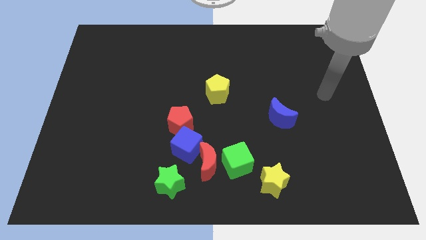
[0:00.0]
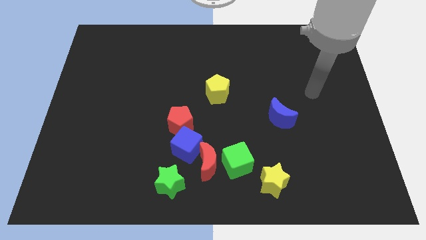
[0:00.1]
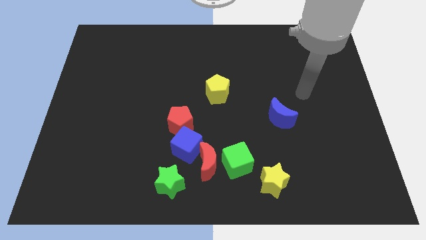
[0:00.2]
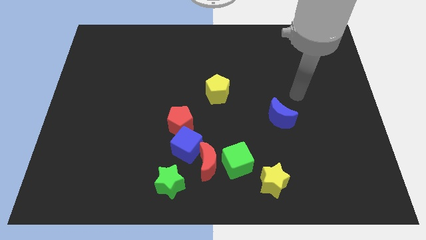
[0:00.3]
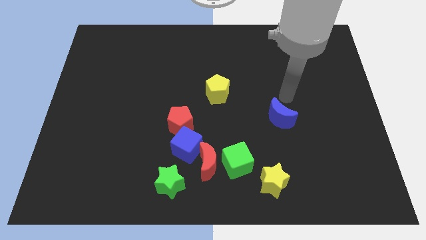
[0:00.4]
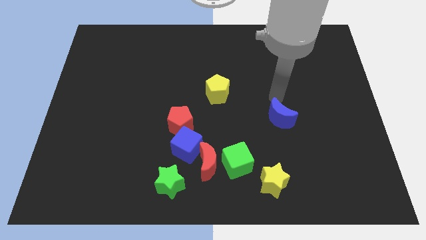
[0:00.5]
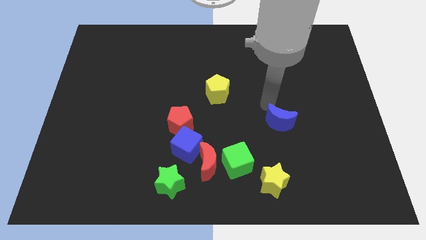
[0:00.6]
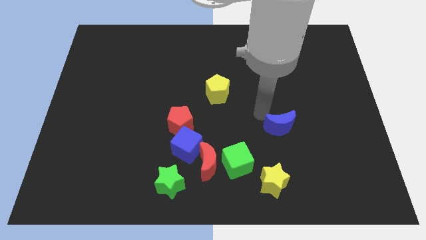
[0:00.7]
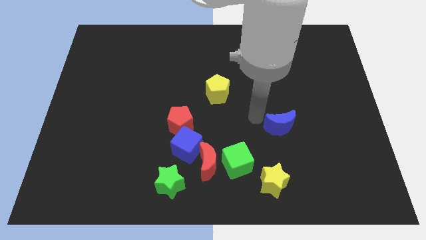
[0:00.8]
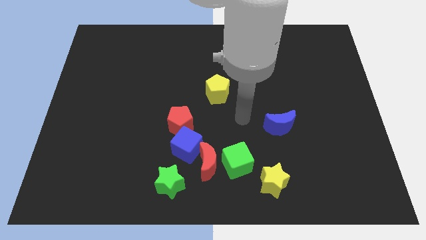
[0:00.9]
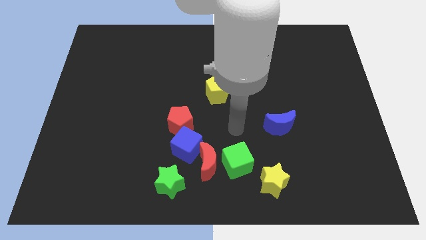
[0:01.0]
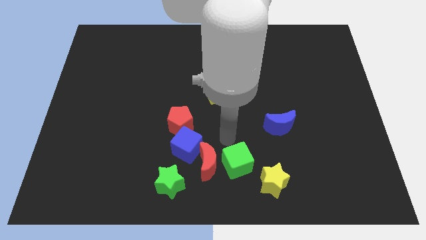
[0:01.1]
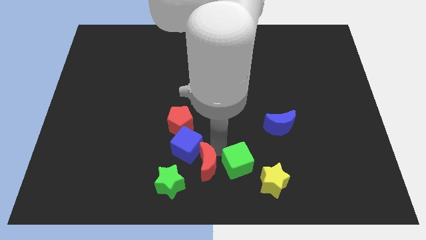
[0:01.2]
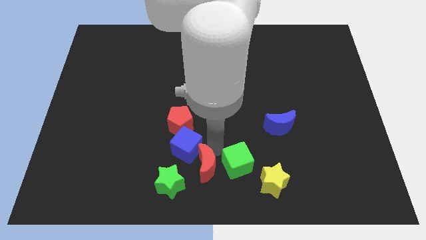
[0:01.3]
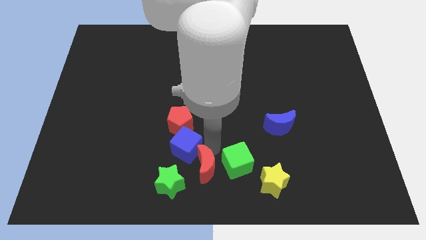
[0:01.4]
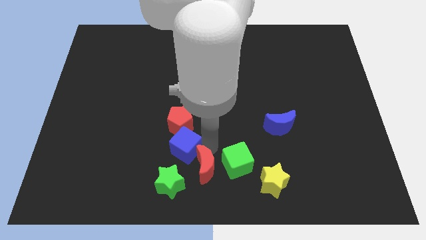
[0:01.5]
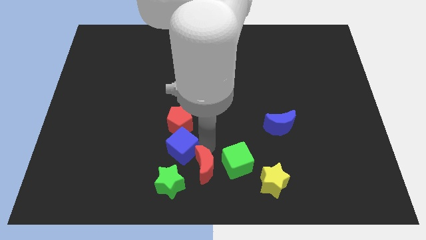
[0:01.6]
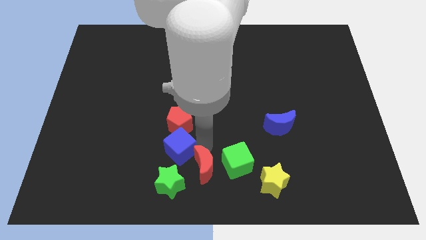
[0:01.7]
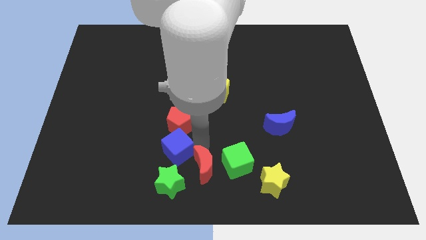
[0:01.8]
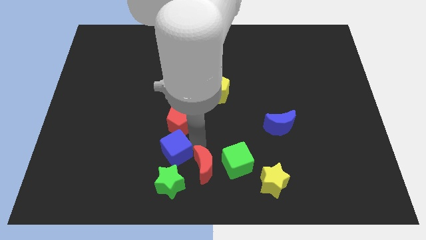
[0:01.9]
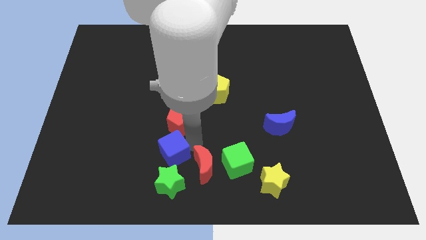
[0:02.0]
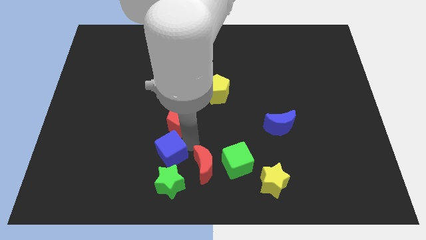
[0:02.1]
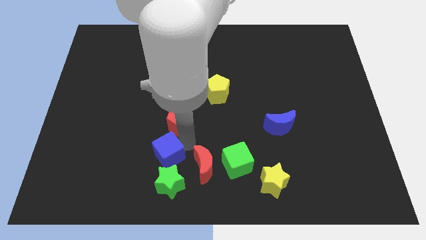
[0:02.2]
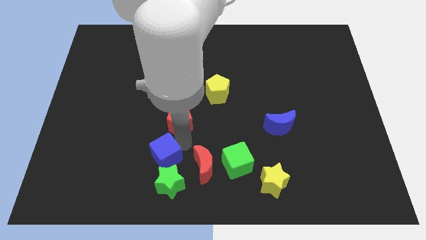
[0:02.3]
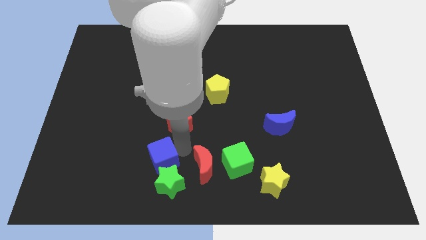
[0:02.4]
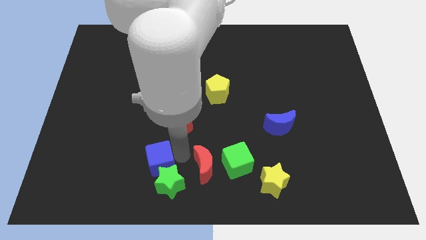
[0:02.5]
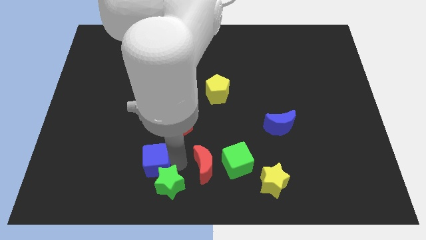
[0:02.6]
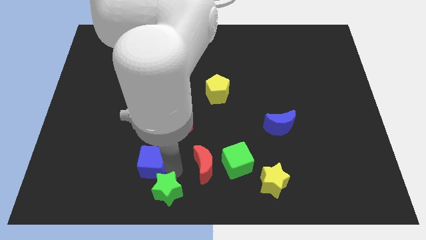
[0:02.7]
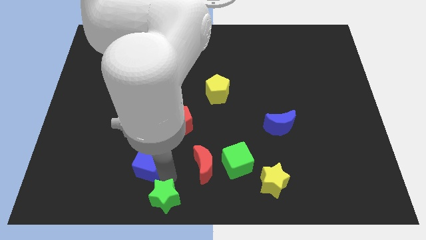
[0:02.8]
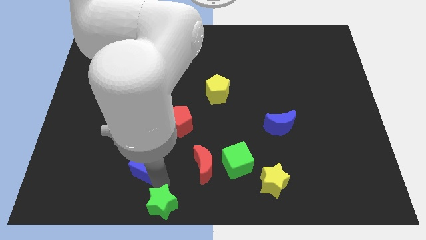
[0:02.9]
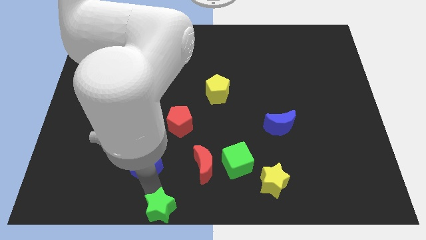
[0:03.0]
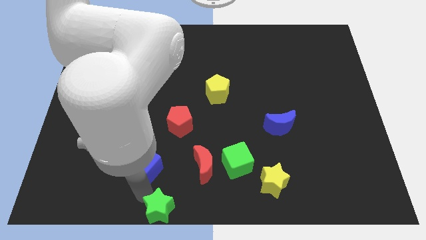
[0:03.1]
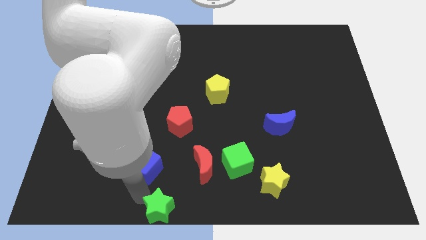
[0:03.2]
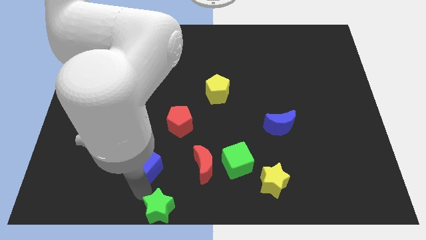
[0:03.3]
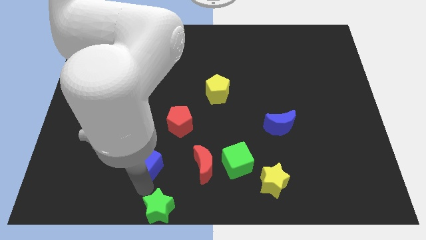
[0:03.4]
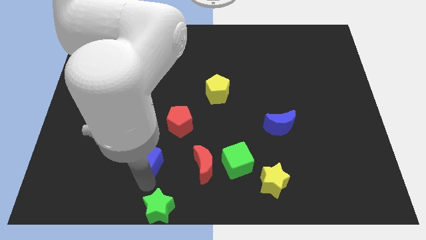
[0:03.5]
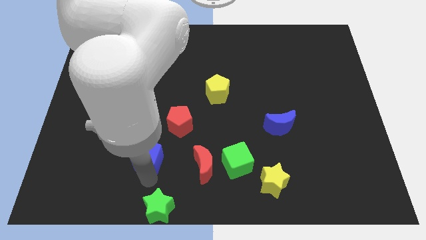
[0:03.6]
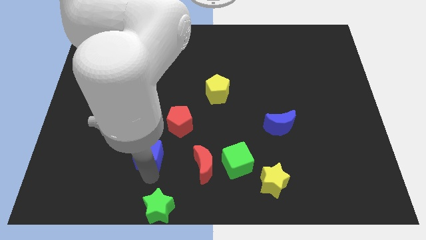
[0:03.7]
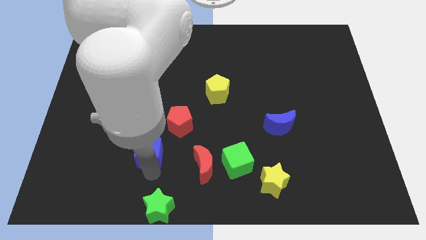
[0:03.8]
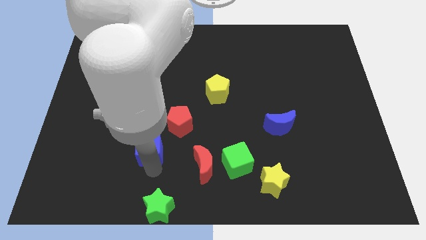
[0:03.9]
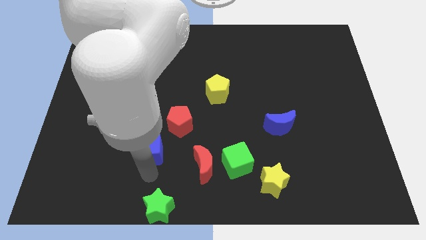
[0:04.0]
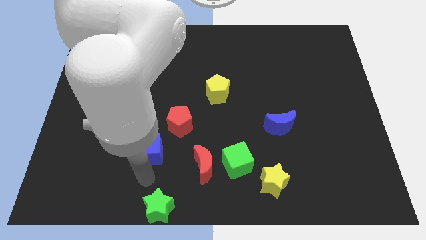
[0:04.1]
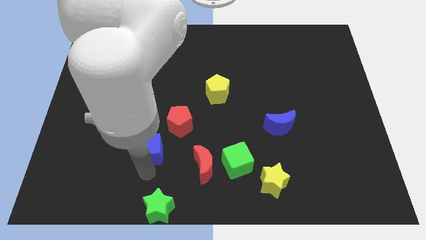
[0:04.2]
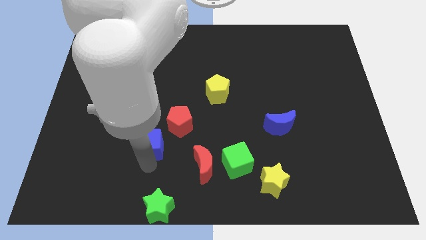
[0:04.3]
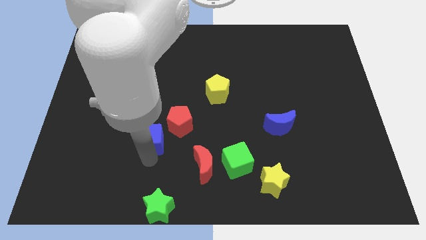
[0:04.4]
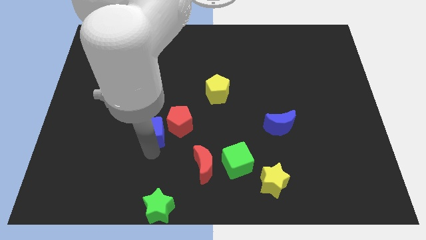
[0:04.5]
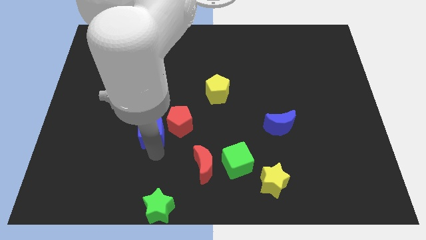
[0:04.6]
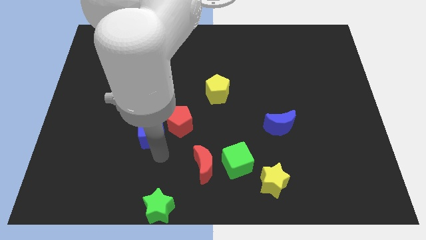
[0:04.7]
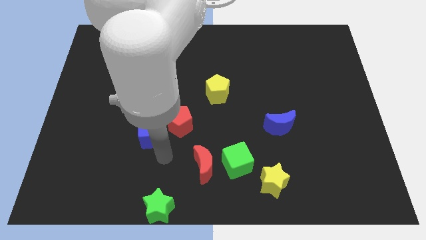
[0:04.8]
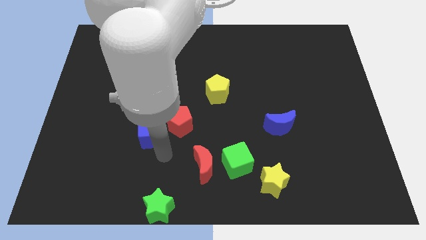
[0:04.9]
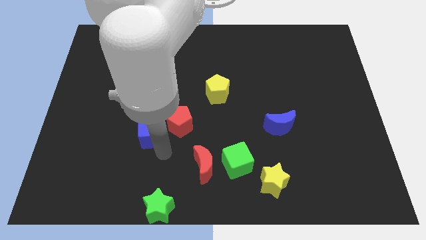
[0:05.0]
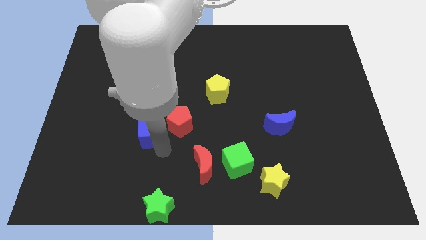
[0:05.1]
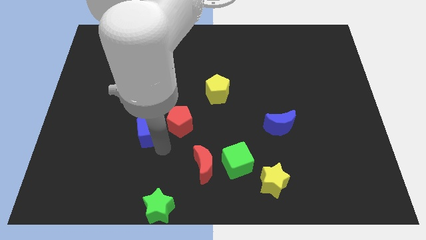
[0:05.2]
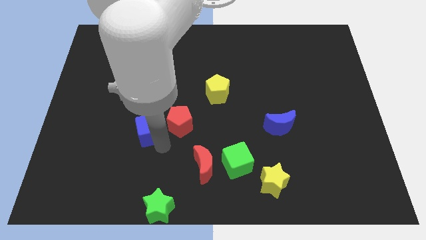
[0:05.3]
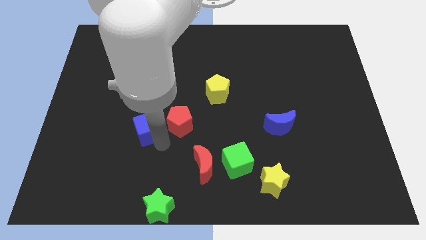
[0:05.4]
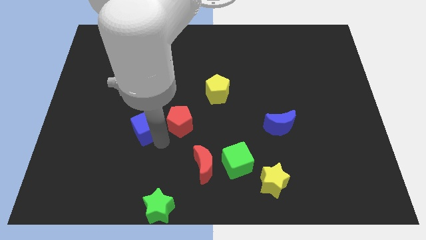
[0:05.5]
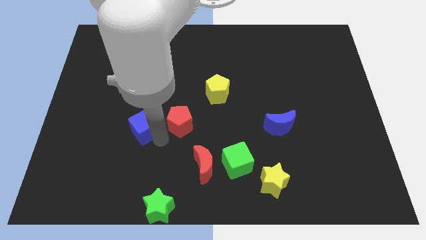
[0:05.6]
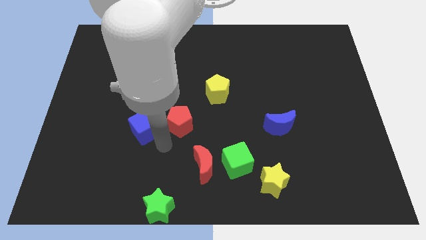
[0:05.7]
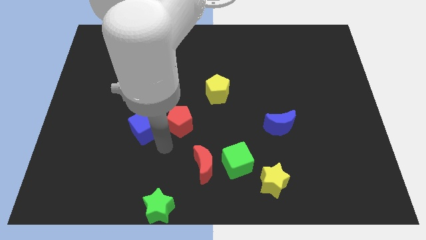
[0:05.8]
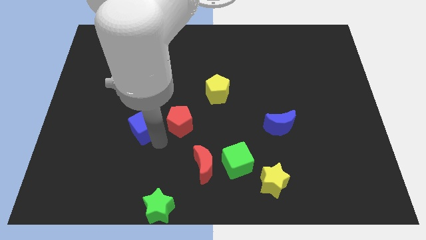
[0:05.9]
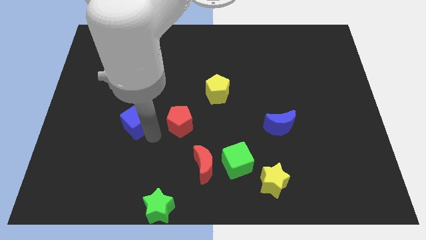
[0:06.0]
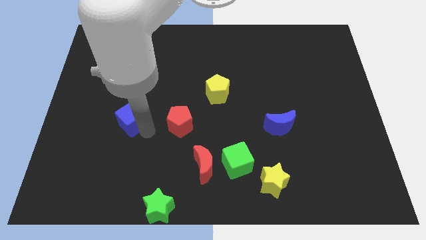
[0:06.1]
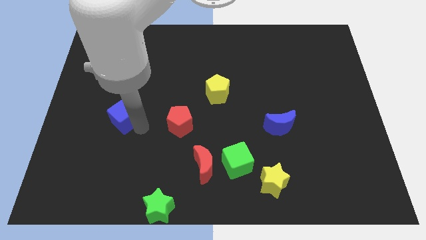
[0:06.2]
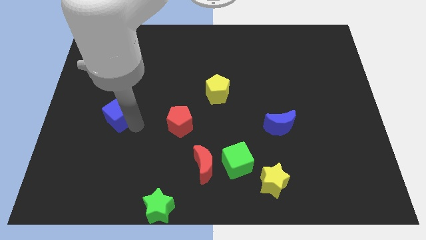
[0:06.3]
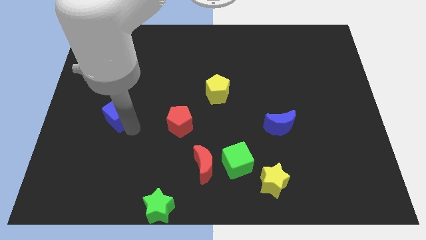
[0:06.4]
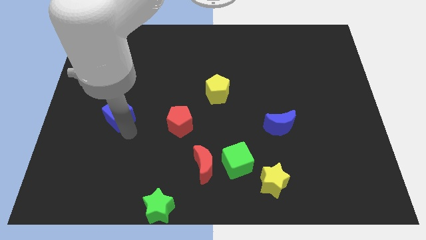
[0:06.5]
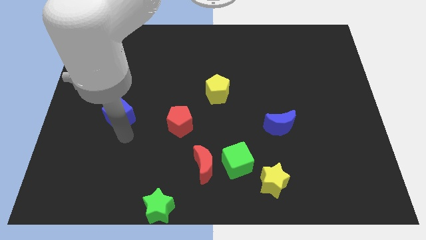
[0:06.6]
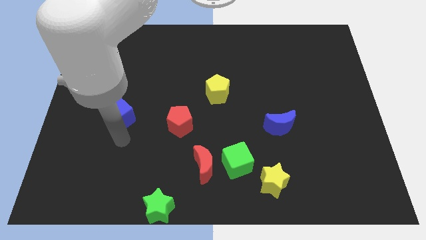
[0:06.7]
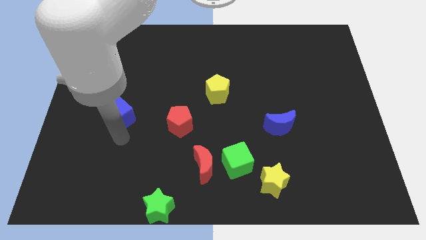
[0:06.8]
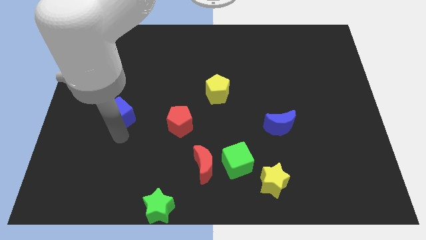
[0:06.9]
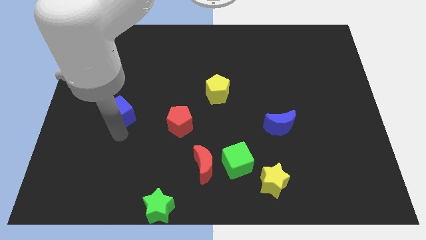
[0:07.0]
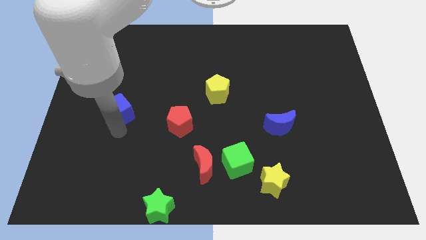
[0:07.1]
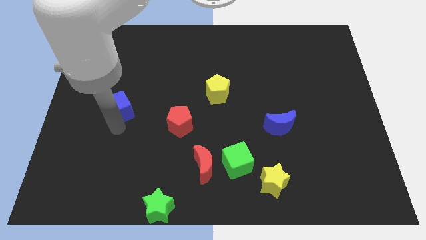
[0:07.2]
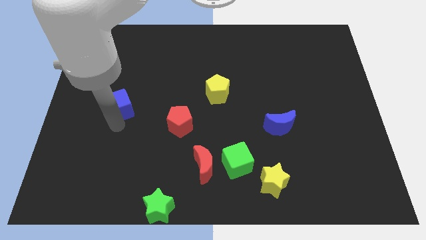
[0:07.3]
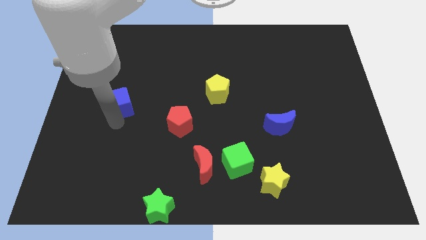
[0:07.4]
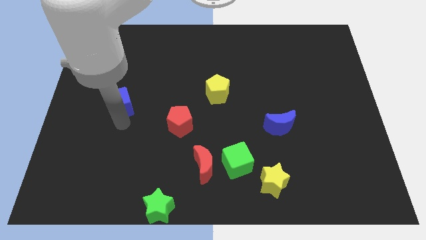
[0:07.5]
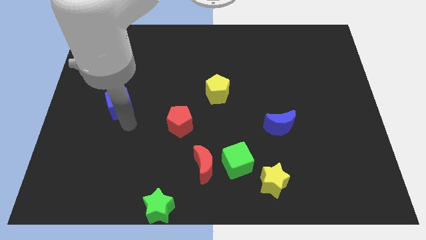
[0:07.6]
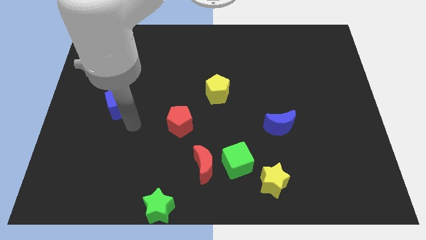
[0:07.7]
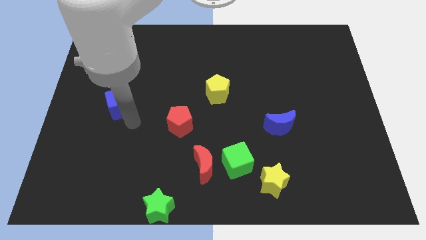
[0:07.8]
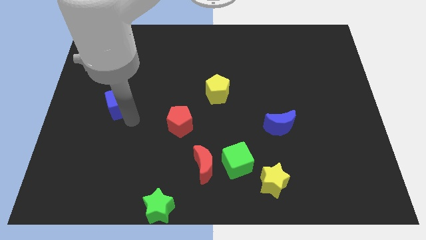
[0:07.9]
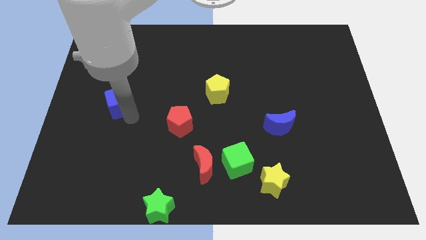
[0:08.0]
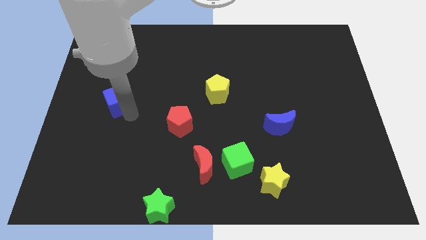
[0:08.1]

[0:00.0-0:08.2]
push the blue cube up and to the left diagonally
